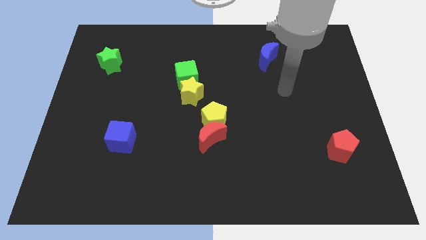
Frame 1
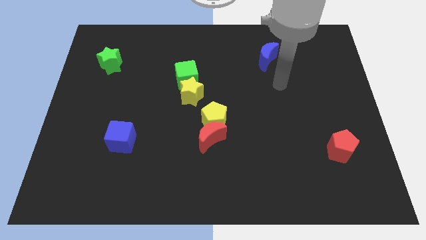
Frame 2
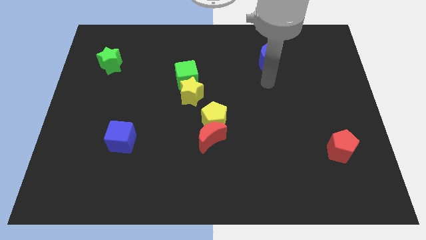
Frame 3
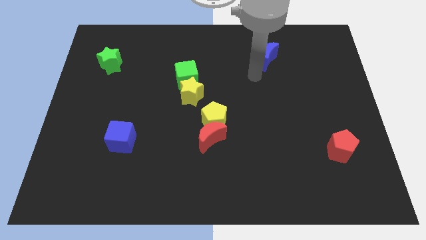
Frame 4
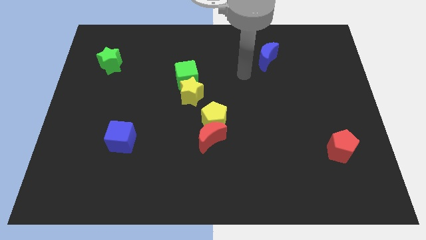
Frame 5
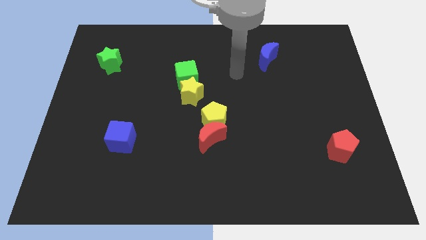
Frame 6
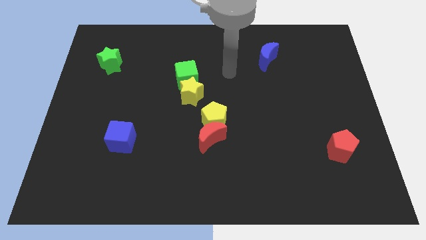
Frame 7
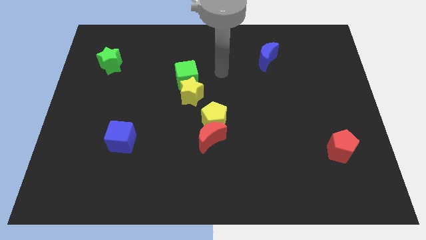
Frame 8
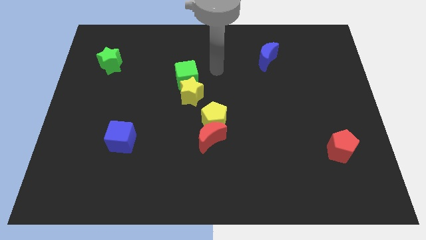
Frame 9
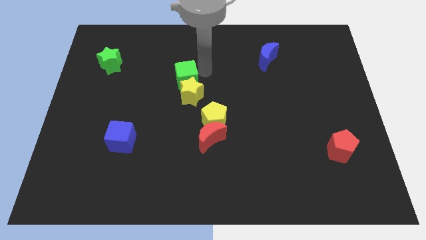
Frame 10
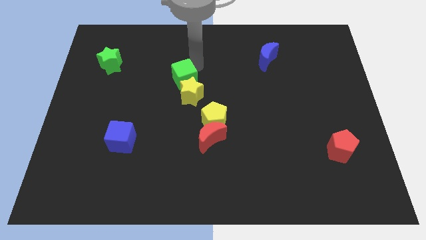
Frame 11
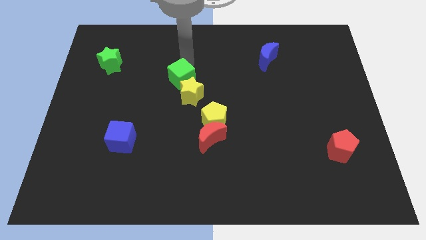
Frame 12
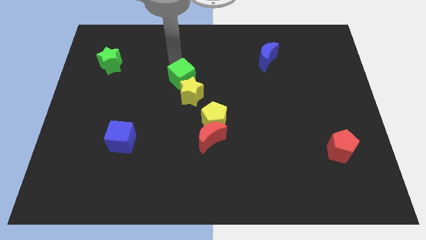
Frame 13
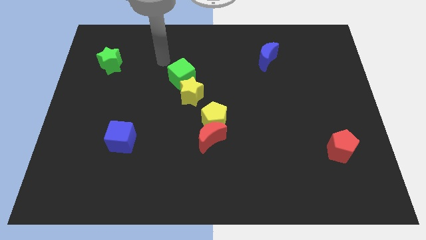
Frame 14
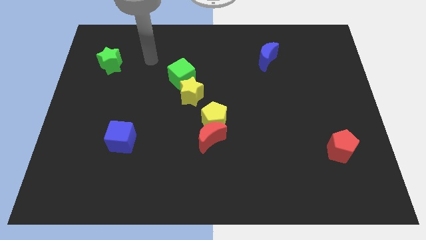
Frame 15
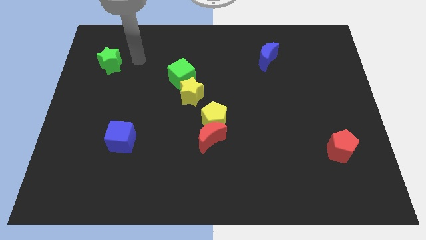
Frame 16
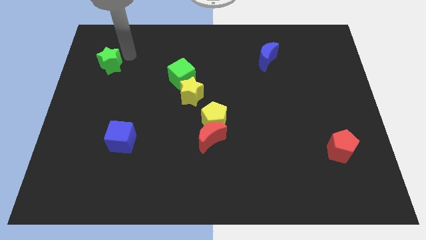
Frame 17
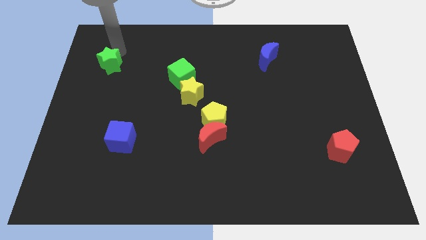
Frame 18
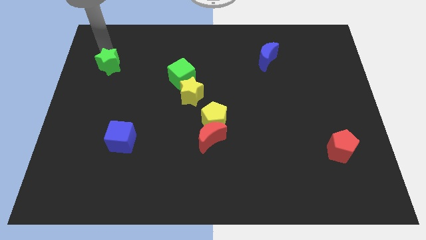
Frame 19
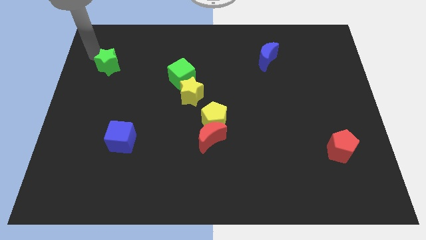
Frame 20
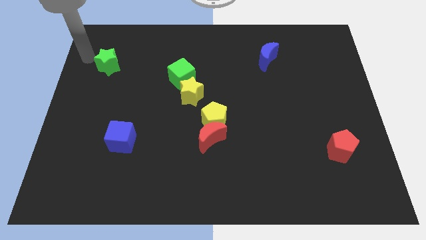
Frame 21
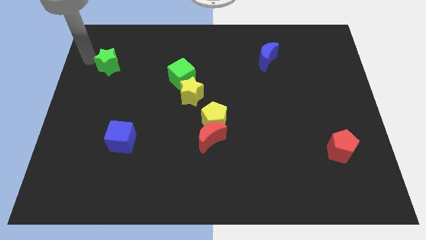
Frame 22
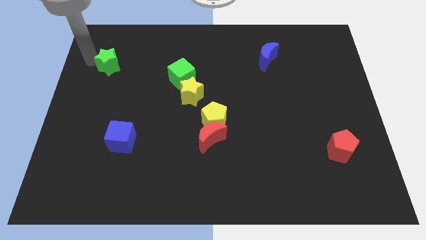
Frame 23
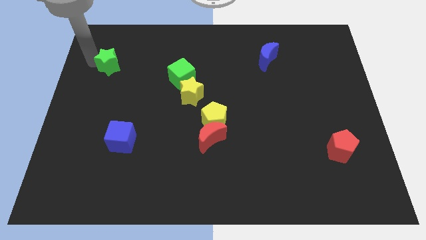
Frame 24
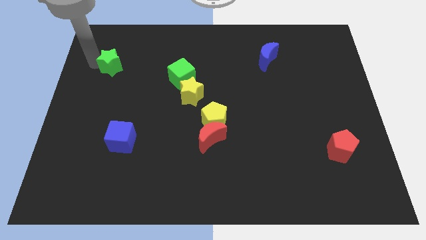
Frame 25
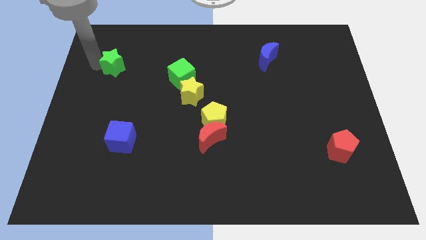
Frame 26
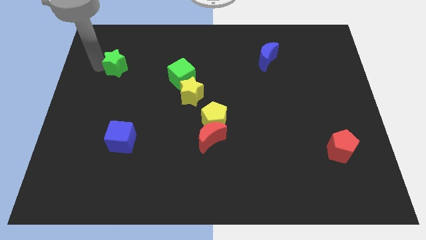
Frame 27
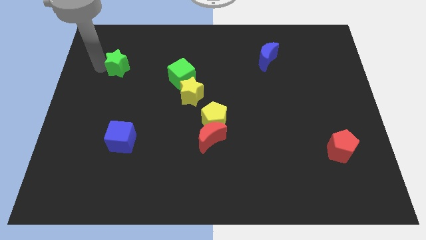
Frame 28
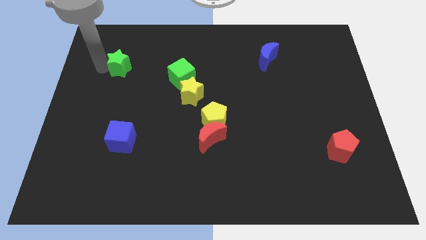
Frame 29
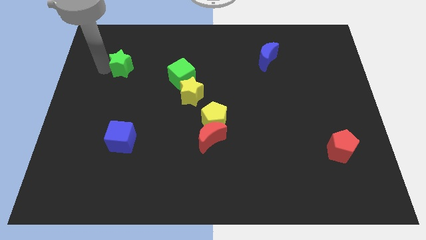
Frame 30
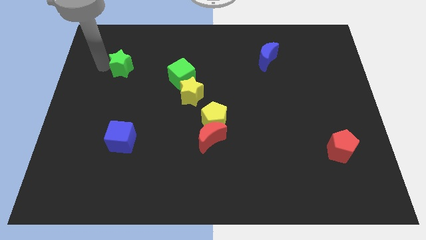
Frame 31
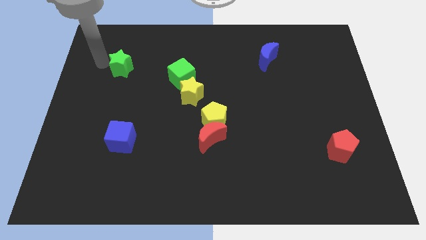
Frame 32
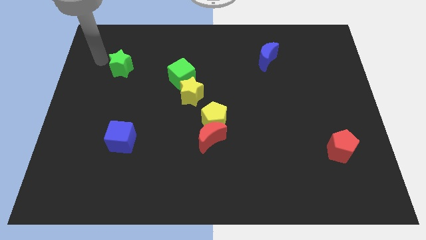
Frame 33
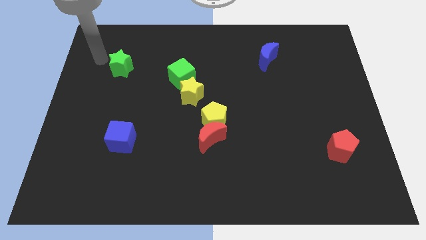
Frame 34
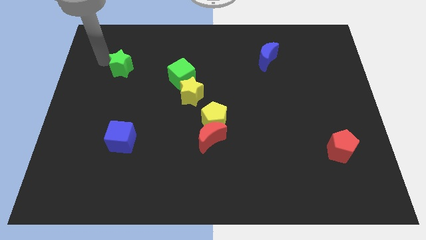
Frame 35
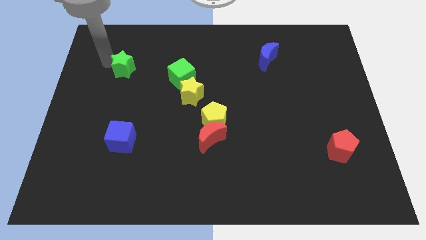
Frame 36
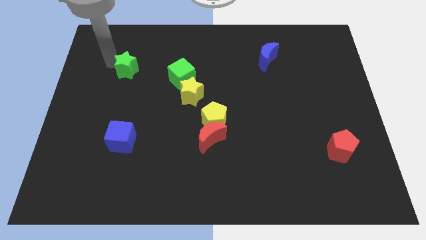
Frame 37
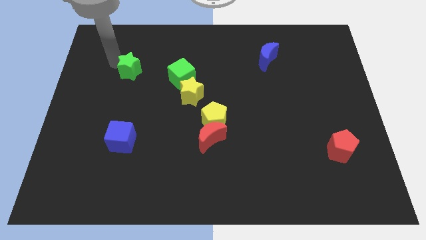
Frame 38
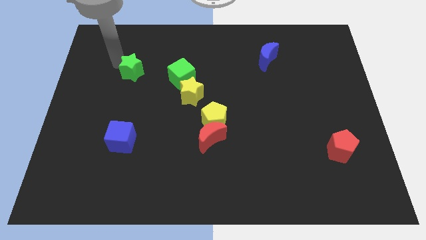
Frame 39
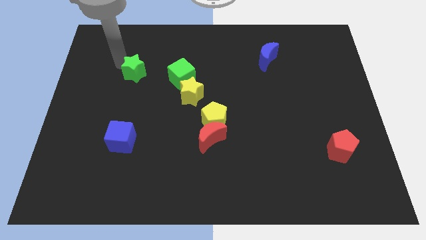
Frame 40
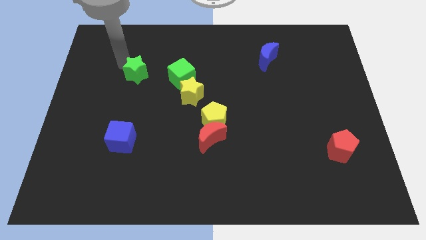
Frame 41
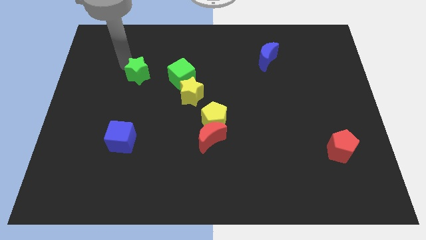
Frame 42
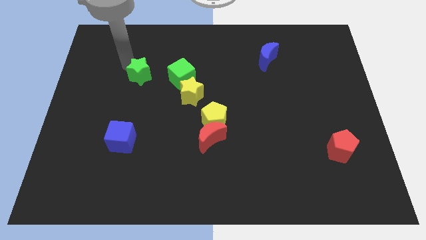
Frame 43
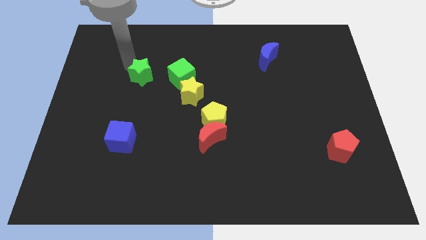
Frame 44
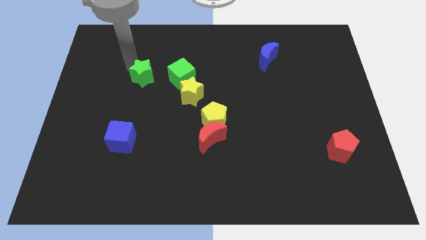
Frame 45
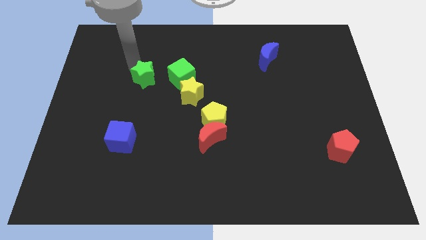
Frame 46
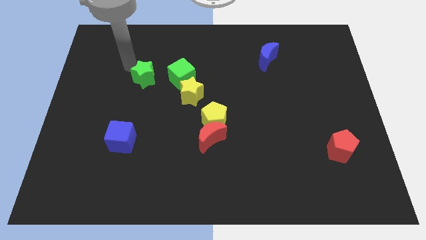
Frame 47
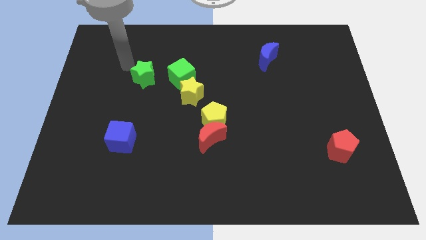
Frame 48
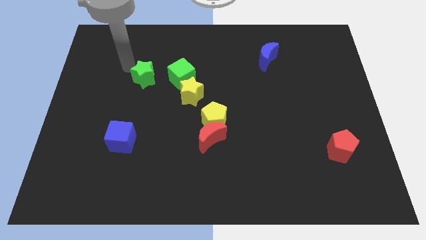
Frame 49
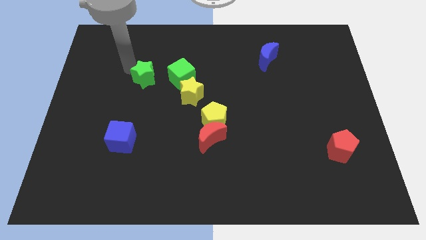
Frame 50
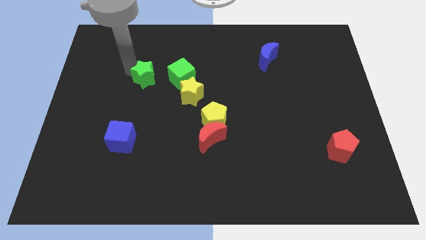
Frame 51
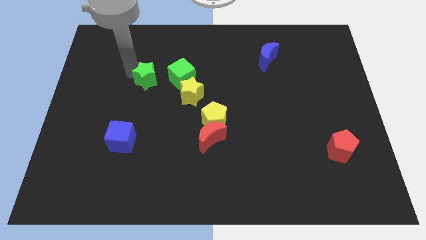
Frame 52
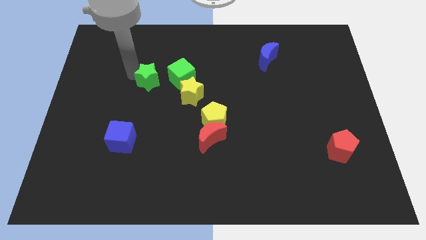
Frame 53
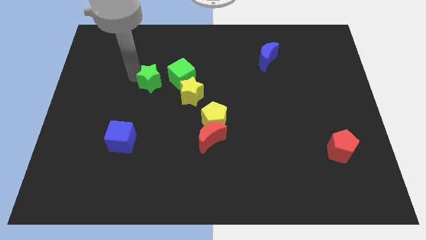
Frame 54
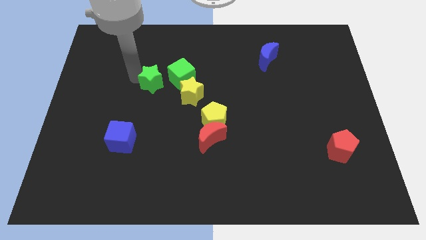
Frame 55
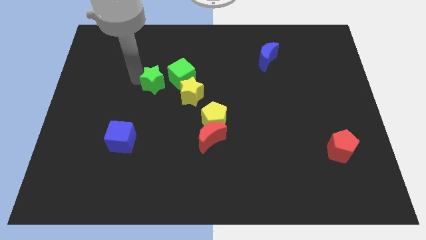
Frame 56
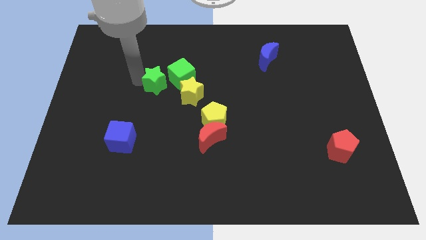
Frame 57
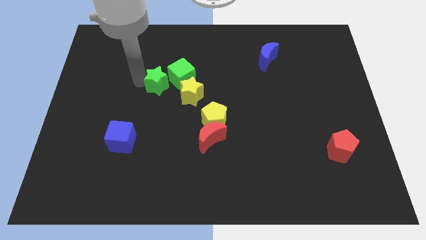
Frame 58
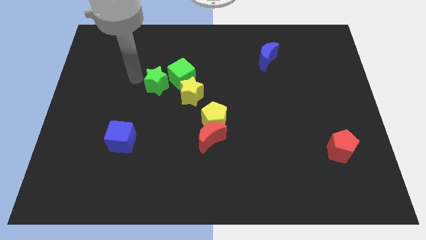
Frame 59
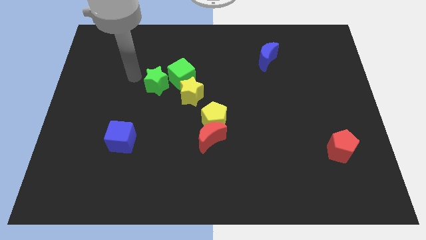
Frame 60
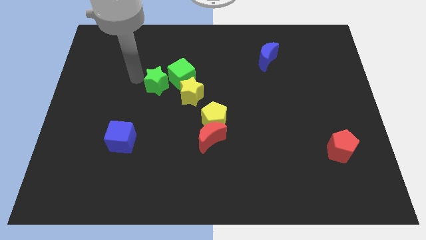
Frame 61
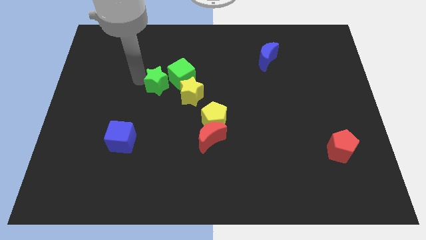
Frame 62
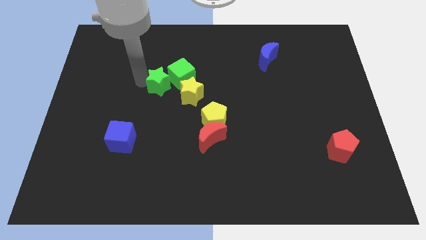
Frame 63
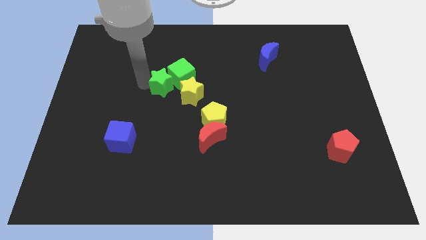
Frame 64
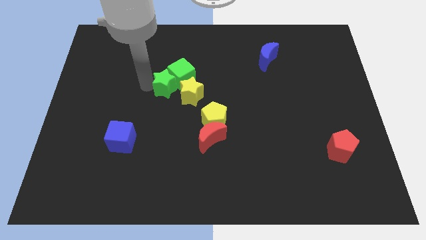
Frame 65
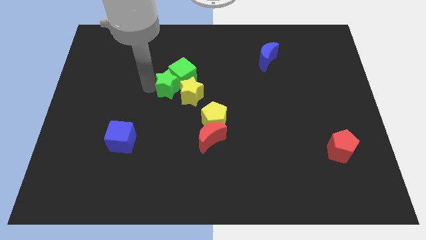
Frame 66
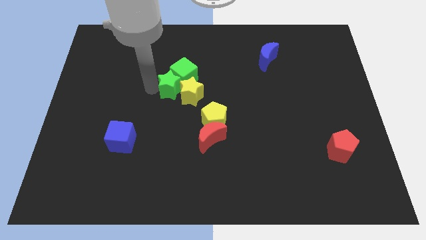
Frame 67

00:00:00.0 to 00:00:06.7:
slide the green star to the yellow star
